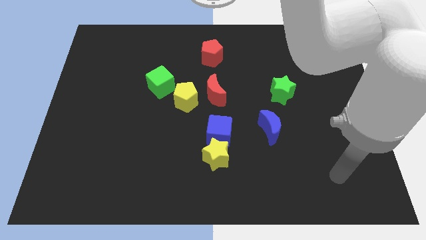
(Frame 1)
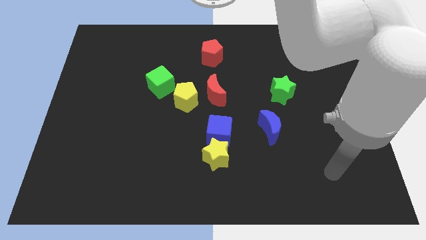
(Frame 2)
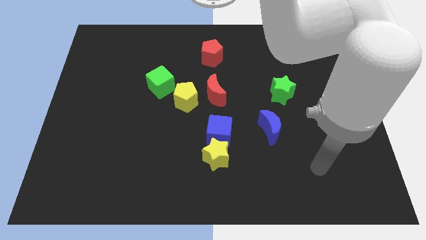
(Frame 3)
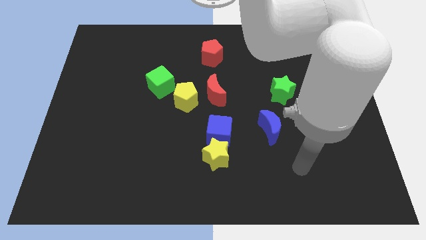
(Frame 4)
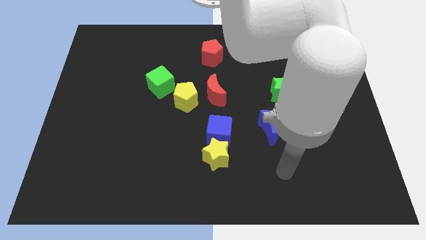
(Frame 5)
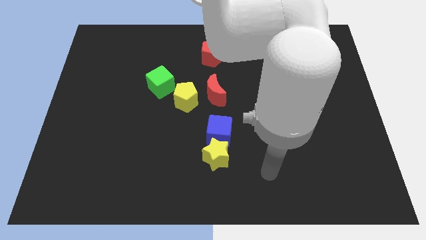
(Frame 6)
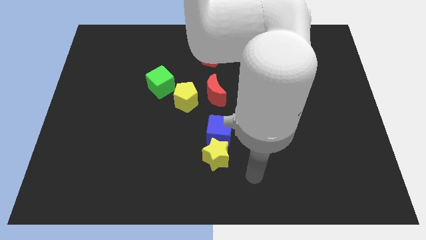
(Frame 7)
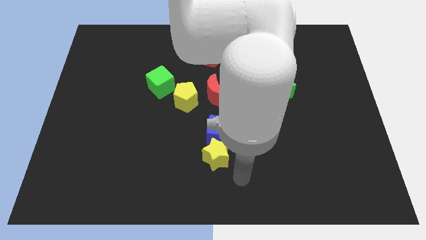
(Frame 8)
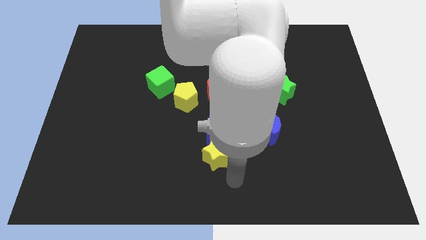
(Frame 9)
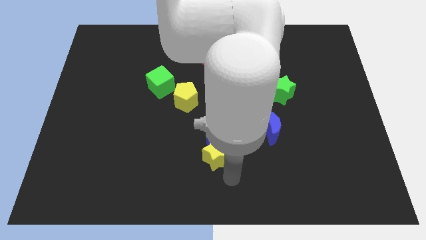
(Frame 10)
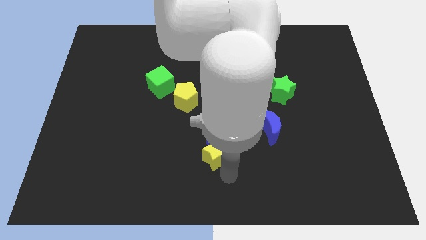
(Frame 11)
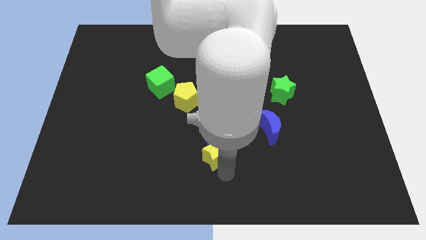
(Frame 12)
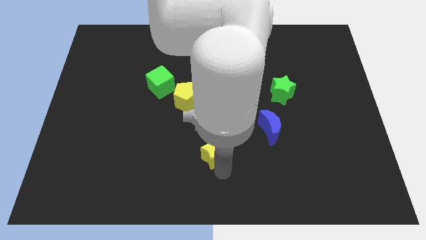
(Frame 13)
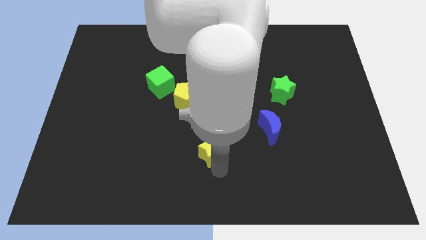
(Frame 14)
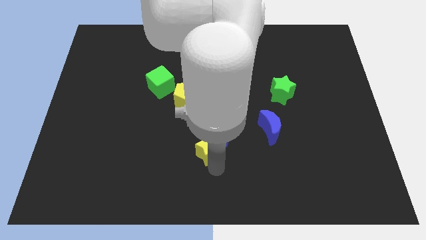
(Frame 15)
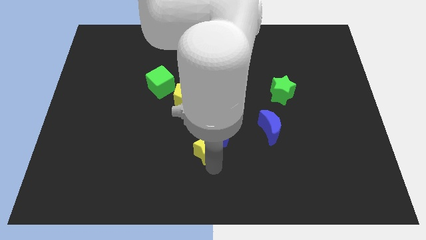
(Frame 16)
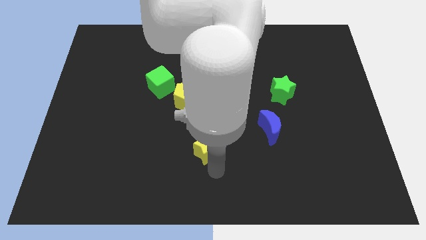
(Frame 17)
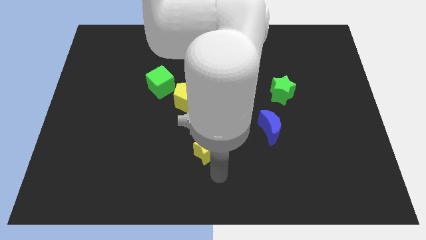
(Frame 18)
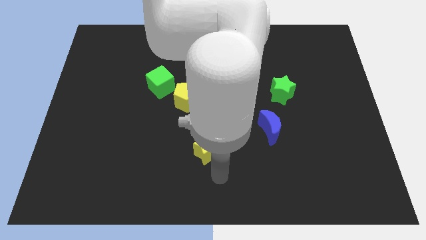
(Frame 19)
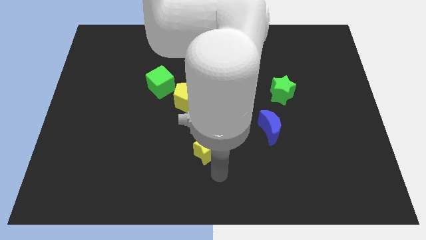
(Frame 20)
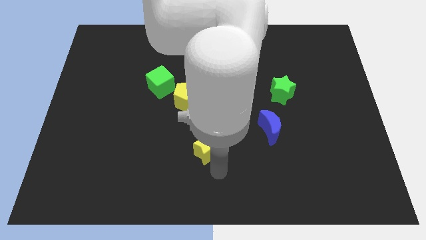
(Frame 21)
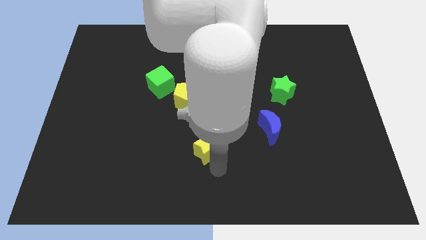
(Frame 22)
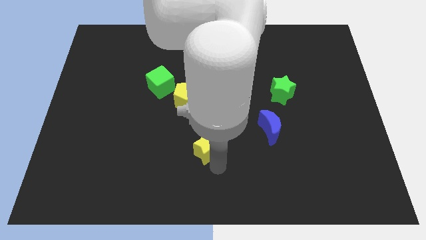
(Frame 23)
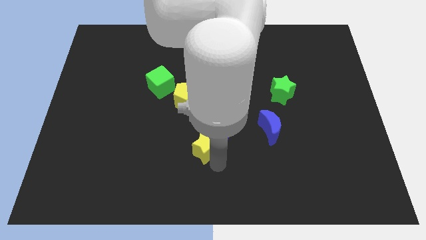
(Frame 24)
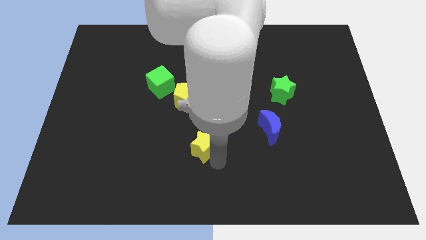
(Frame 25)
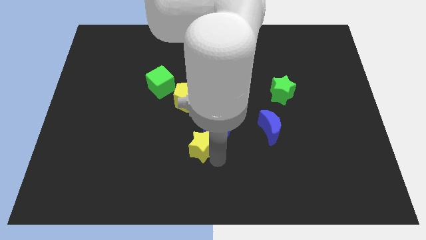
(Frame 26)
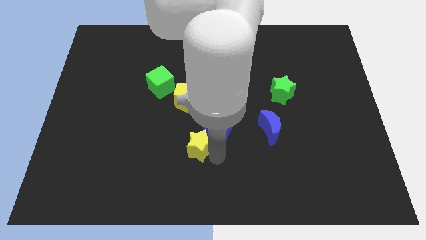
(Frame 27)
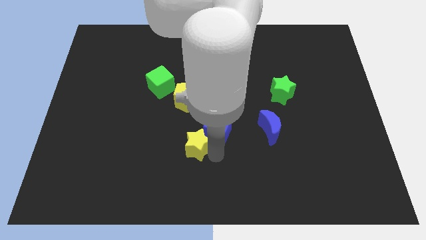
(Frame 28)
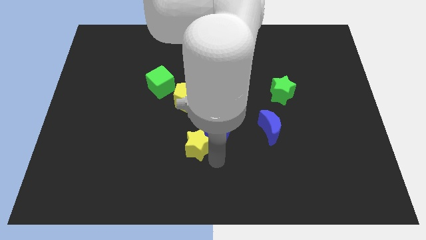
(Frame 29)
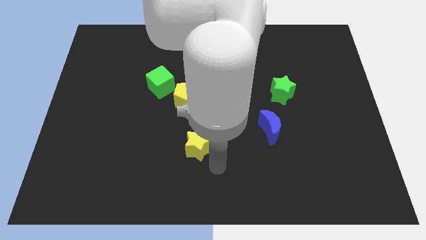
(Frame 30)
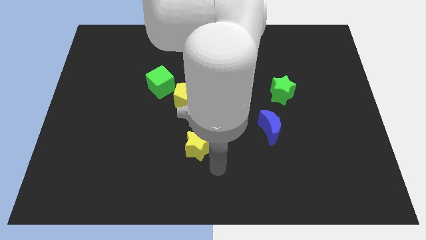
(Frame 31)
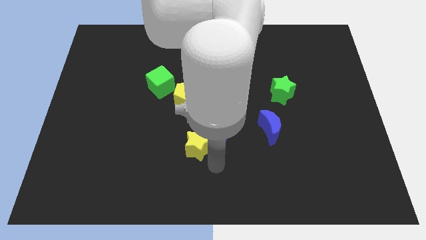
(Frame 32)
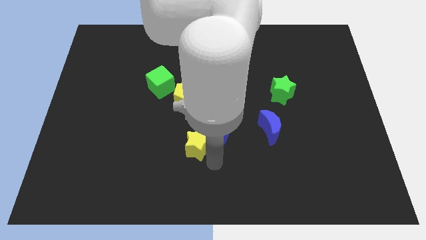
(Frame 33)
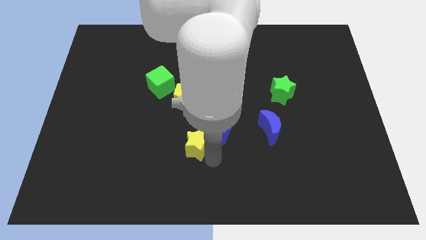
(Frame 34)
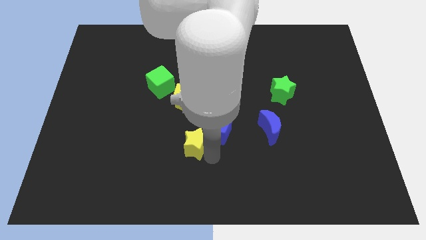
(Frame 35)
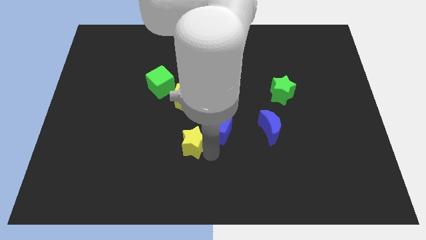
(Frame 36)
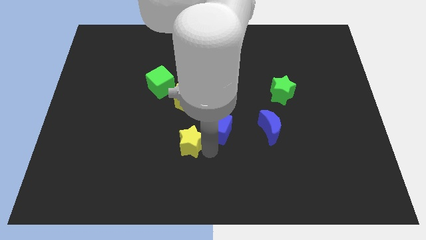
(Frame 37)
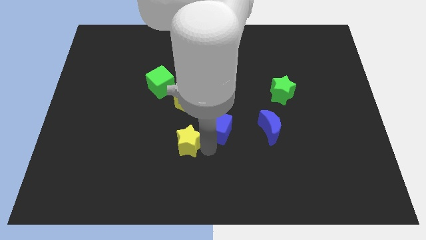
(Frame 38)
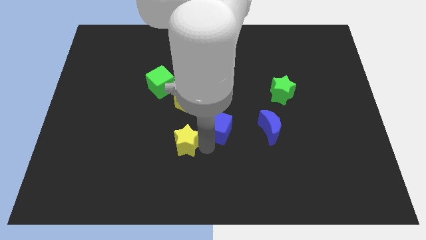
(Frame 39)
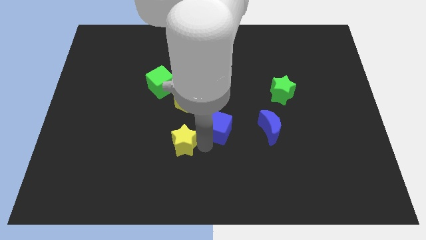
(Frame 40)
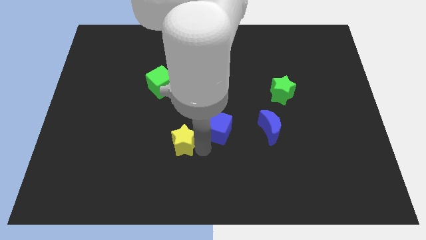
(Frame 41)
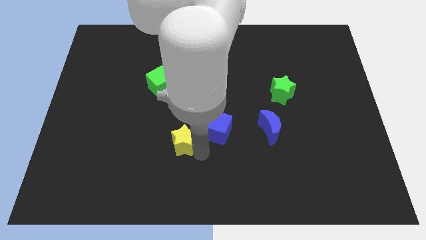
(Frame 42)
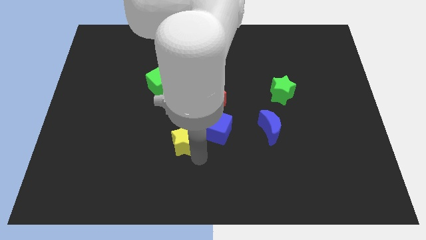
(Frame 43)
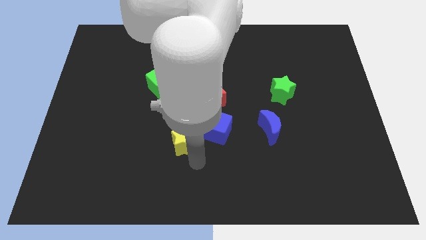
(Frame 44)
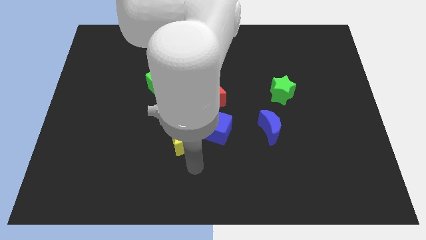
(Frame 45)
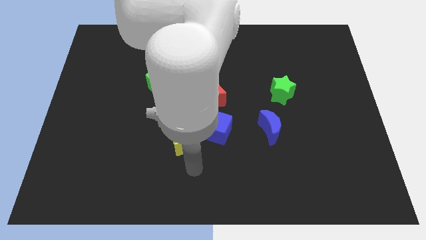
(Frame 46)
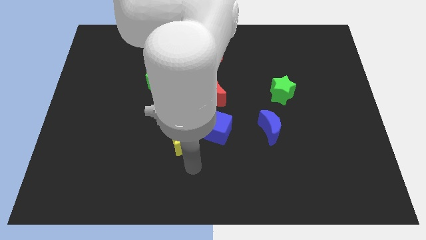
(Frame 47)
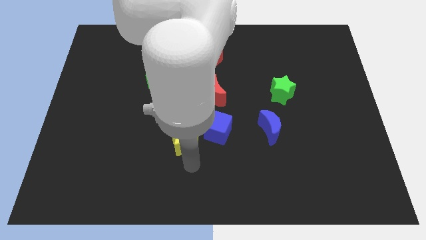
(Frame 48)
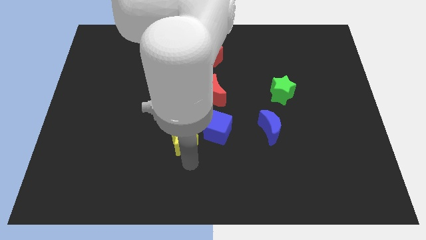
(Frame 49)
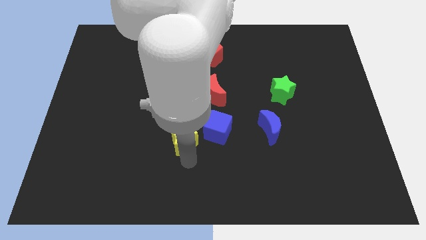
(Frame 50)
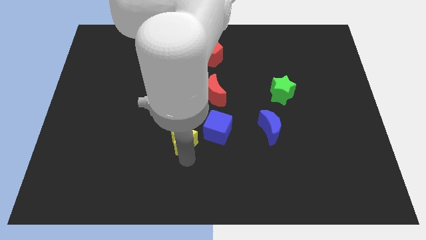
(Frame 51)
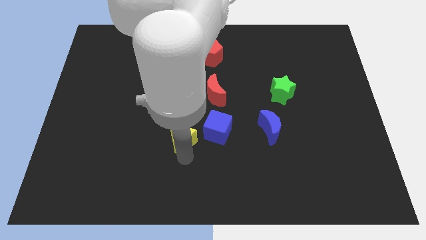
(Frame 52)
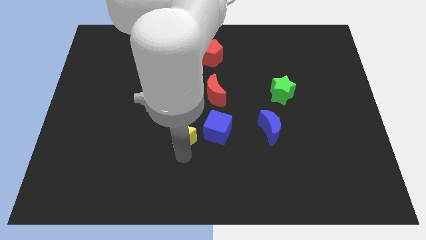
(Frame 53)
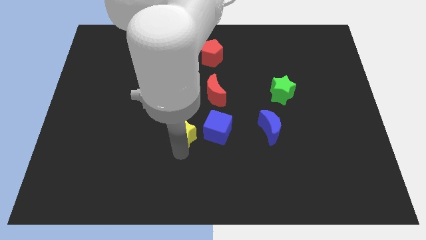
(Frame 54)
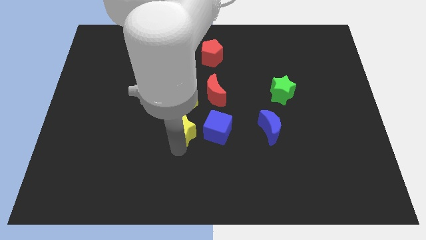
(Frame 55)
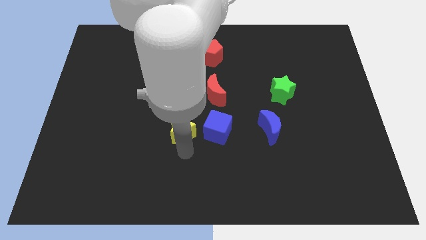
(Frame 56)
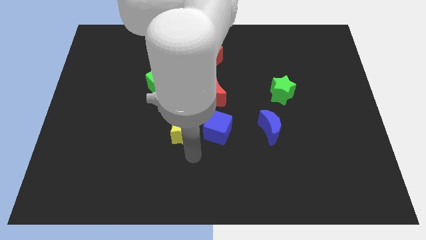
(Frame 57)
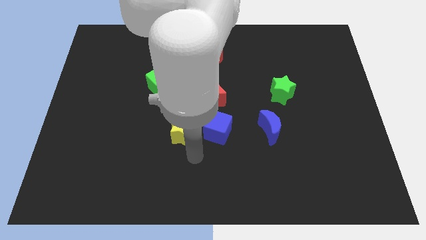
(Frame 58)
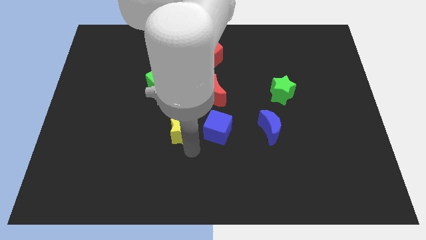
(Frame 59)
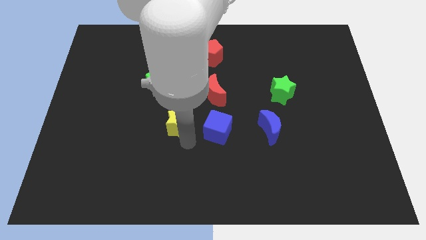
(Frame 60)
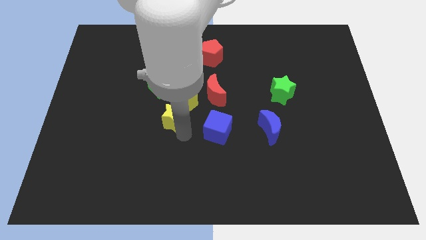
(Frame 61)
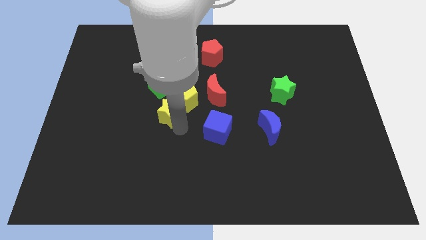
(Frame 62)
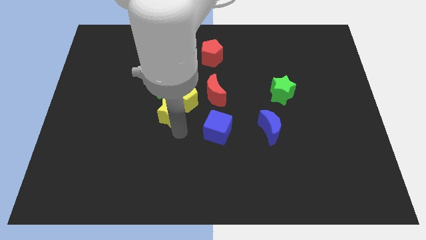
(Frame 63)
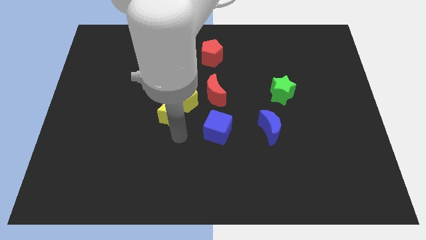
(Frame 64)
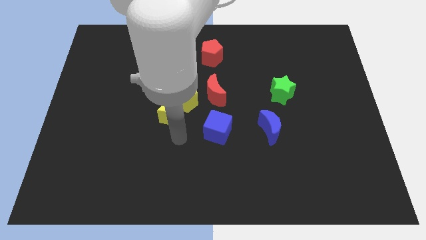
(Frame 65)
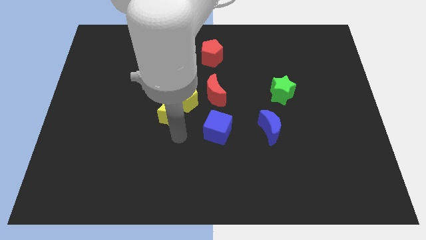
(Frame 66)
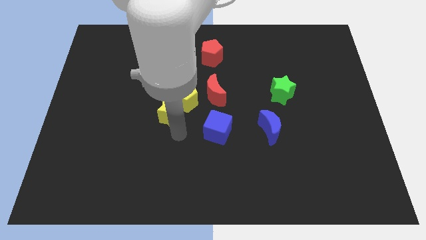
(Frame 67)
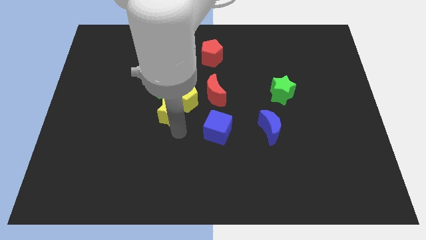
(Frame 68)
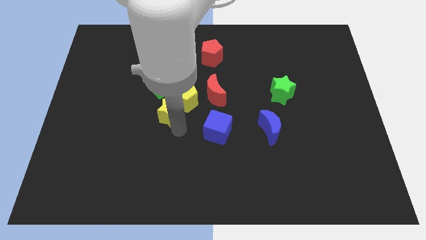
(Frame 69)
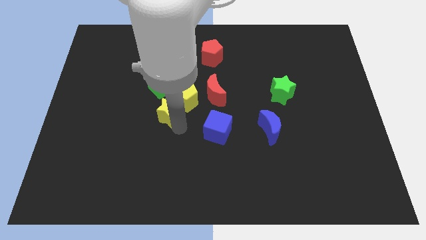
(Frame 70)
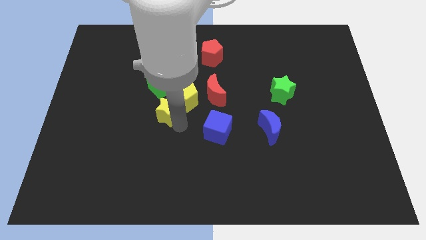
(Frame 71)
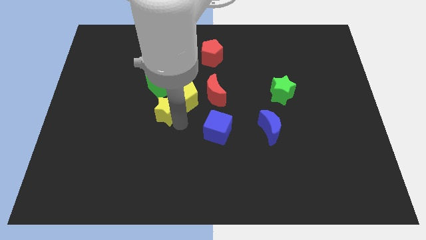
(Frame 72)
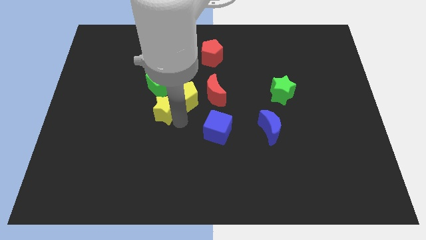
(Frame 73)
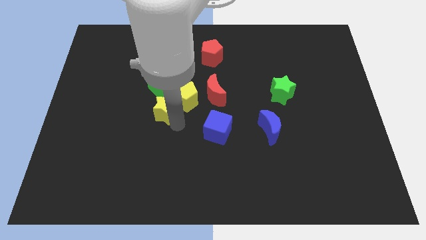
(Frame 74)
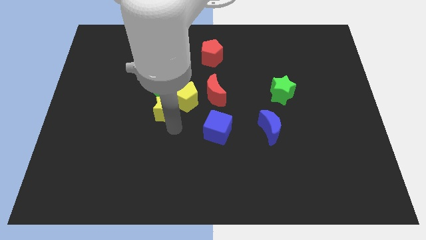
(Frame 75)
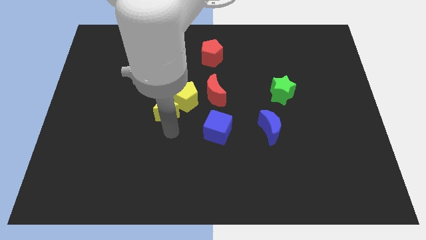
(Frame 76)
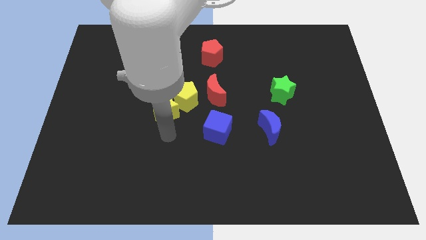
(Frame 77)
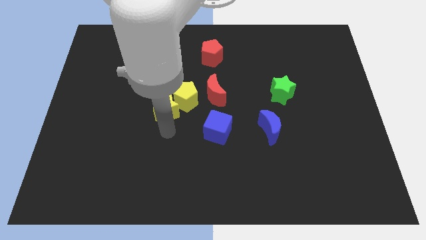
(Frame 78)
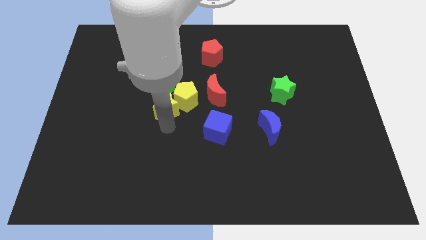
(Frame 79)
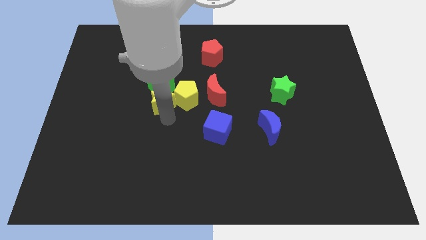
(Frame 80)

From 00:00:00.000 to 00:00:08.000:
push the yellow star next to the green cube

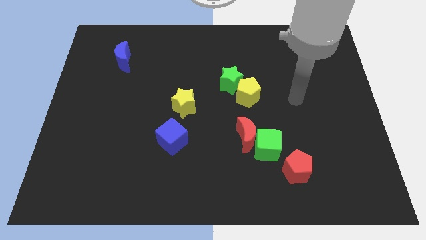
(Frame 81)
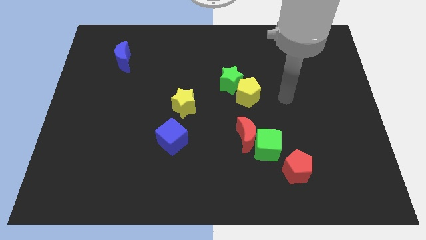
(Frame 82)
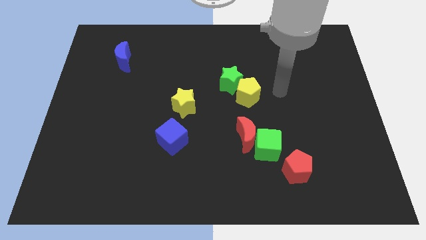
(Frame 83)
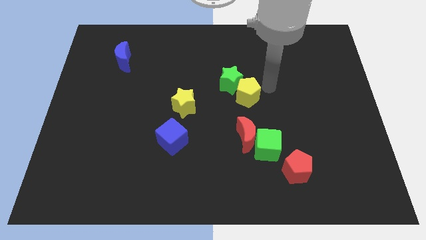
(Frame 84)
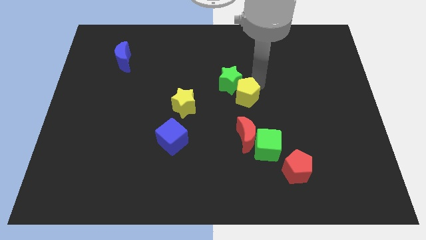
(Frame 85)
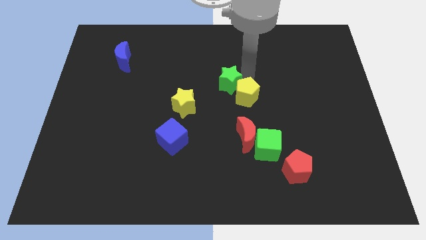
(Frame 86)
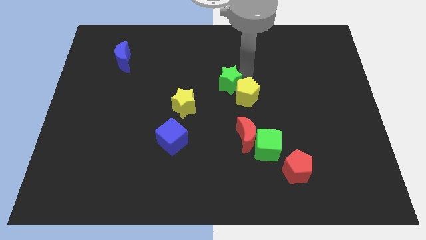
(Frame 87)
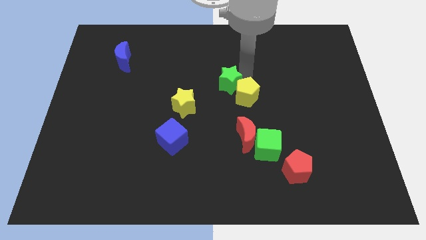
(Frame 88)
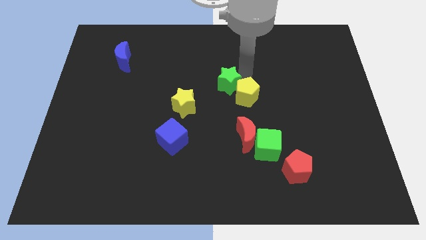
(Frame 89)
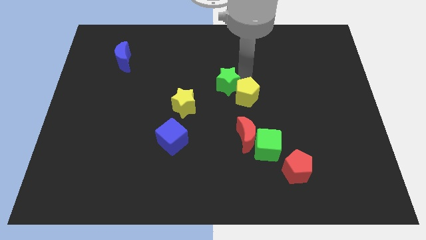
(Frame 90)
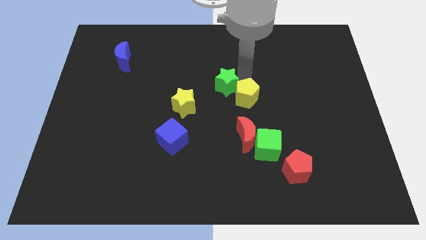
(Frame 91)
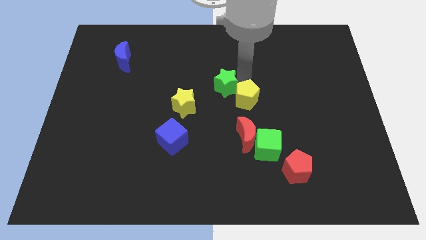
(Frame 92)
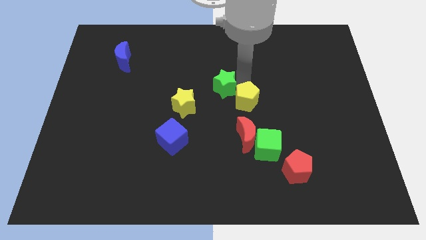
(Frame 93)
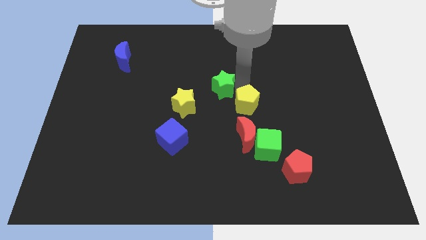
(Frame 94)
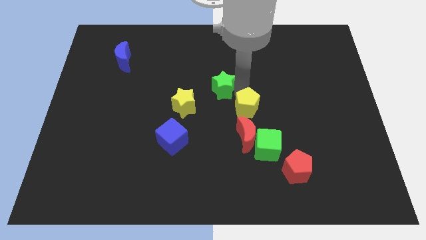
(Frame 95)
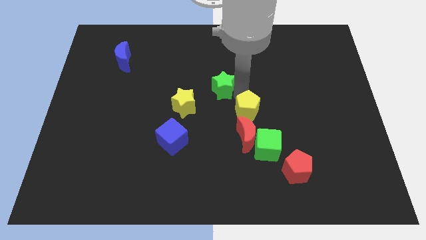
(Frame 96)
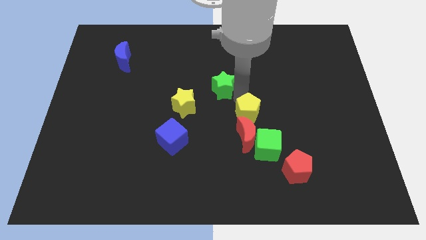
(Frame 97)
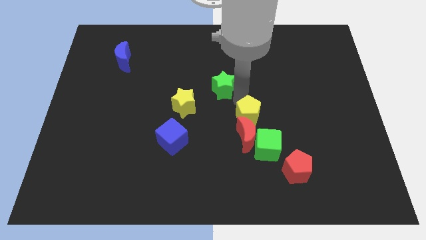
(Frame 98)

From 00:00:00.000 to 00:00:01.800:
move the yellow pentagon towards the red moon
